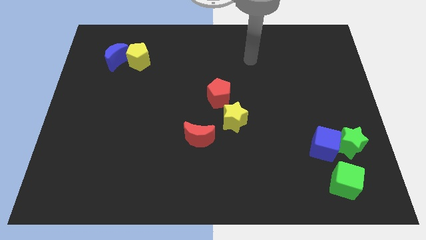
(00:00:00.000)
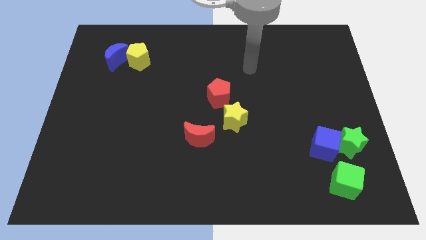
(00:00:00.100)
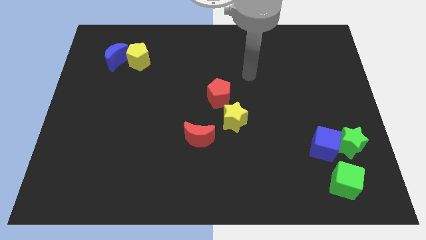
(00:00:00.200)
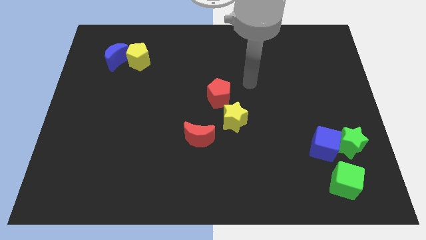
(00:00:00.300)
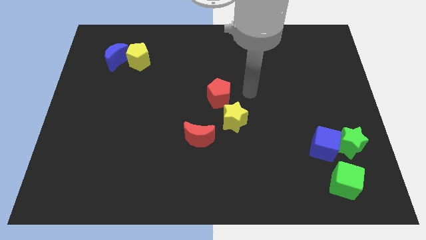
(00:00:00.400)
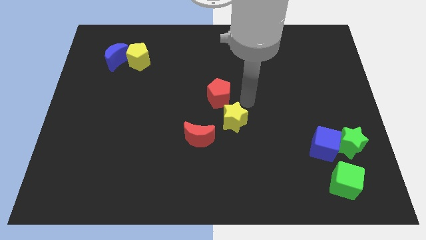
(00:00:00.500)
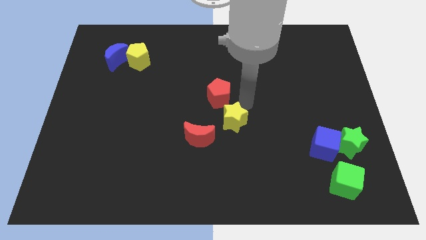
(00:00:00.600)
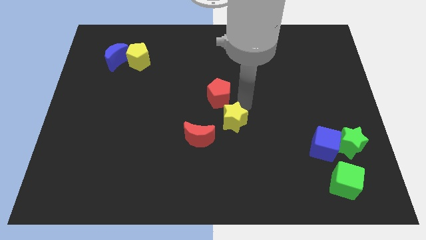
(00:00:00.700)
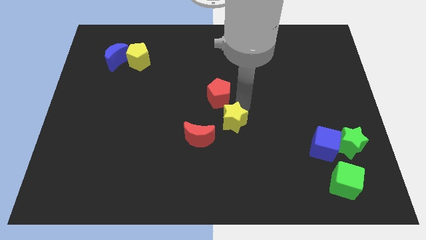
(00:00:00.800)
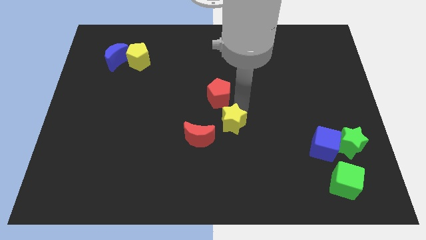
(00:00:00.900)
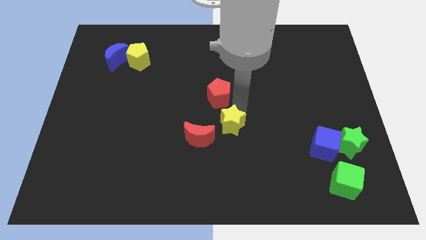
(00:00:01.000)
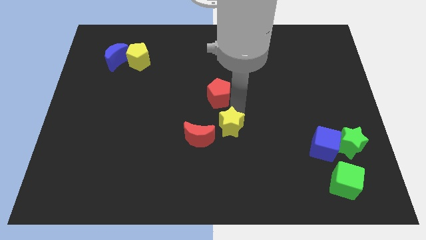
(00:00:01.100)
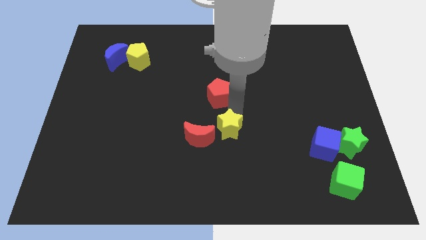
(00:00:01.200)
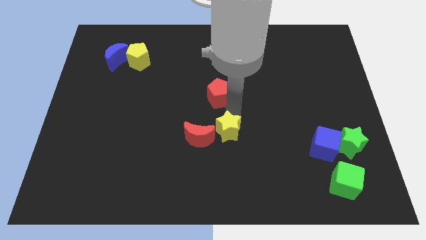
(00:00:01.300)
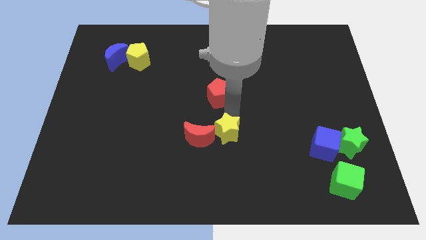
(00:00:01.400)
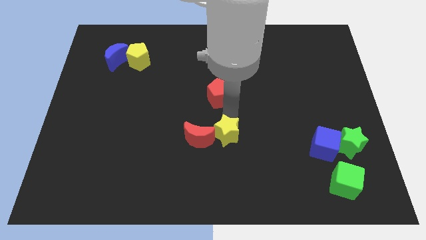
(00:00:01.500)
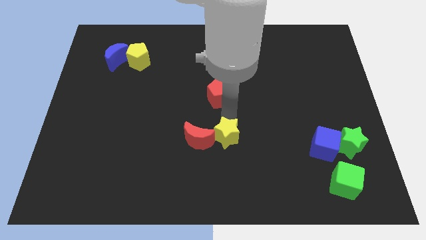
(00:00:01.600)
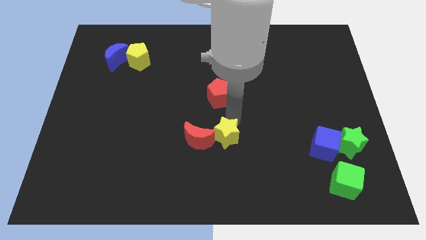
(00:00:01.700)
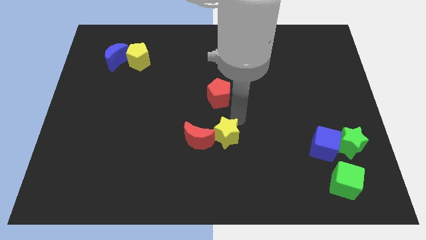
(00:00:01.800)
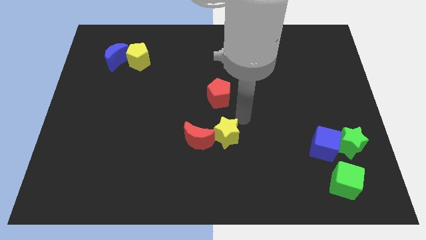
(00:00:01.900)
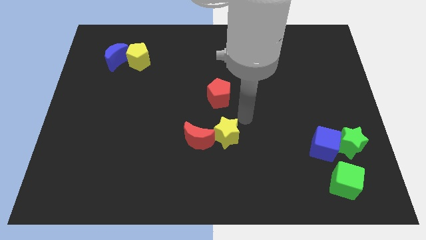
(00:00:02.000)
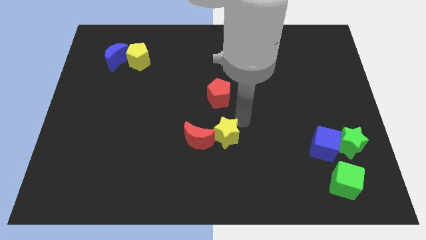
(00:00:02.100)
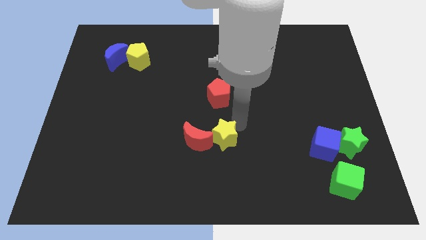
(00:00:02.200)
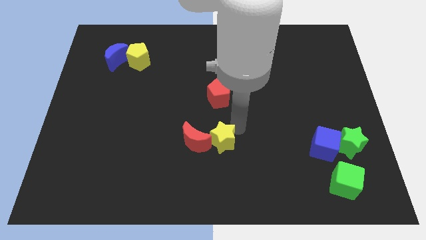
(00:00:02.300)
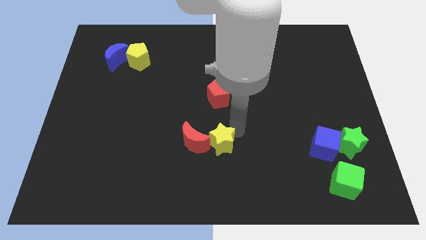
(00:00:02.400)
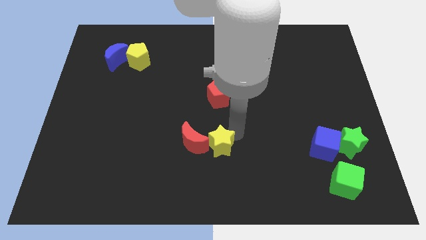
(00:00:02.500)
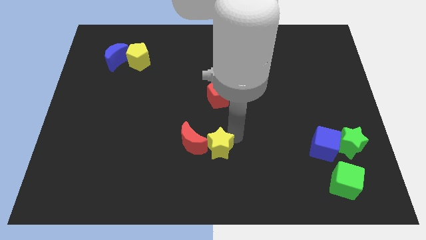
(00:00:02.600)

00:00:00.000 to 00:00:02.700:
move the yellow star diagonally downwards and to the left a bit

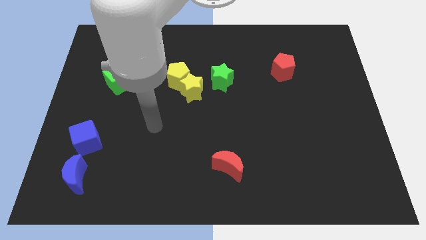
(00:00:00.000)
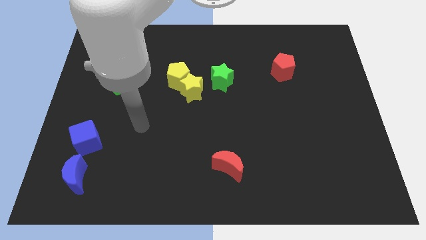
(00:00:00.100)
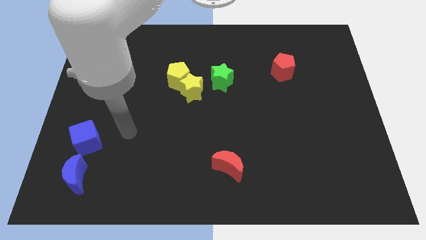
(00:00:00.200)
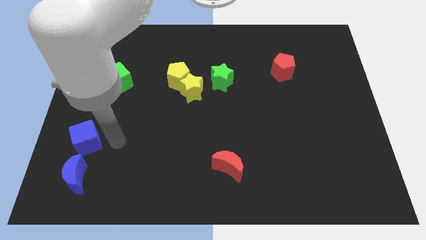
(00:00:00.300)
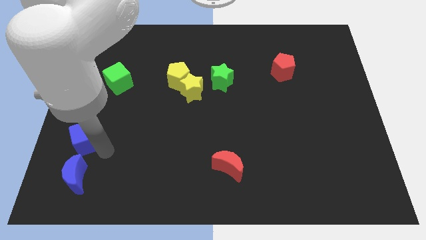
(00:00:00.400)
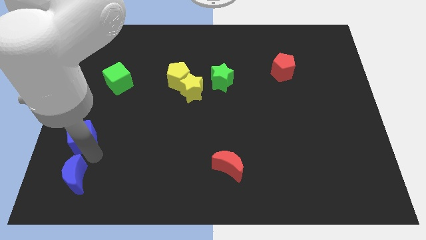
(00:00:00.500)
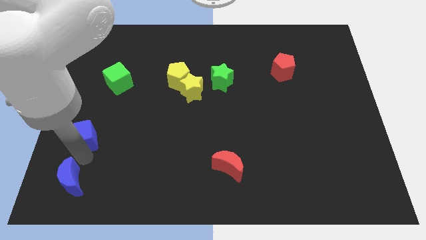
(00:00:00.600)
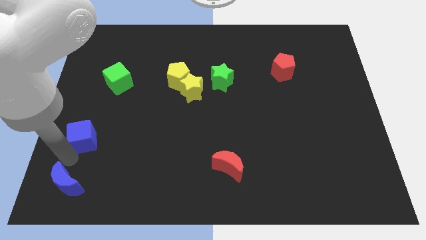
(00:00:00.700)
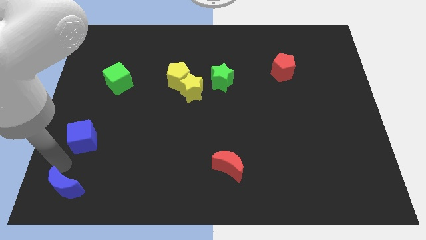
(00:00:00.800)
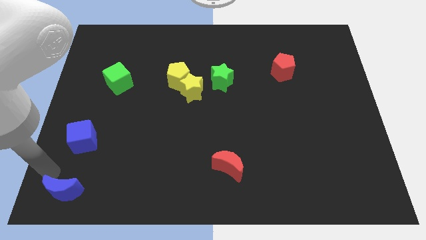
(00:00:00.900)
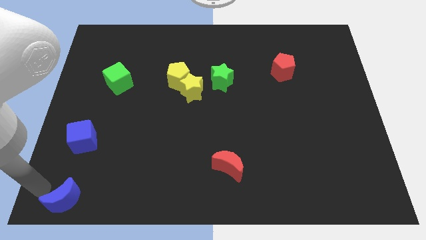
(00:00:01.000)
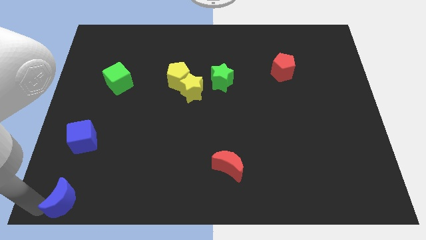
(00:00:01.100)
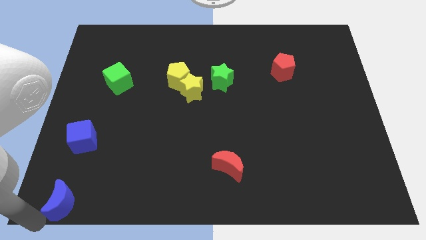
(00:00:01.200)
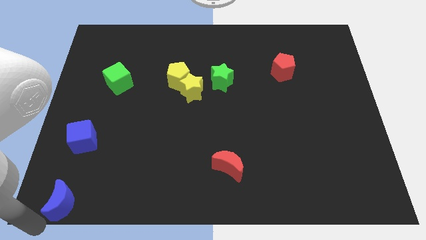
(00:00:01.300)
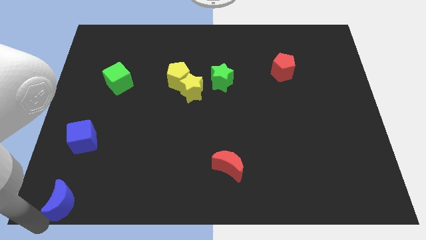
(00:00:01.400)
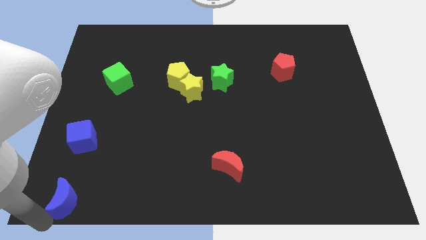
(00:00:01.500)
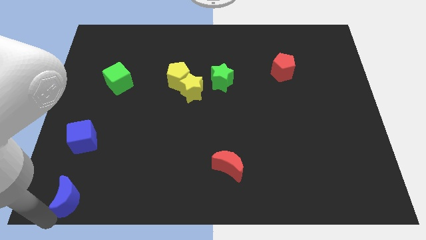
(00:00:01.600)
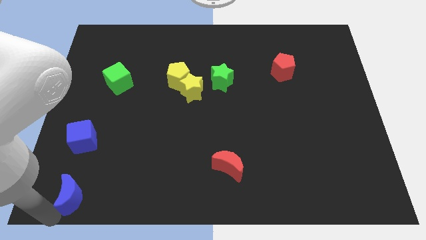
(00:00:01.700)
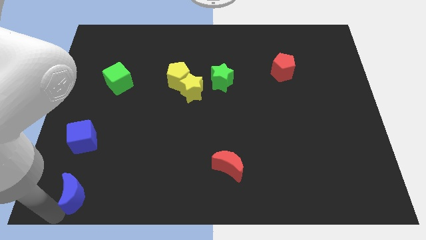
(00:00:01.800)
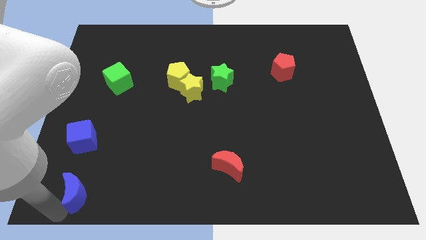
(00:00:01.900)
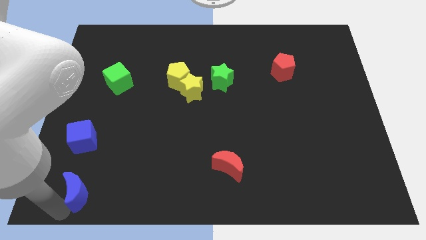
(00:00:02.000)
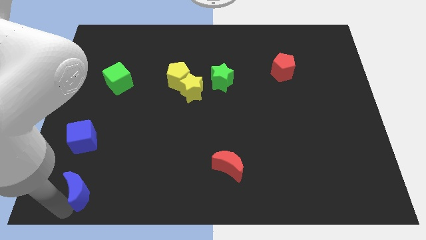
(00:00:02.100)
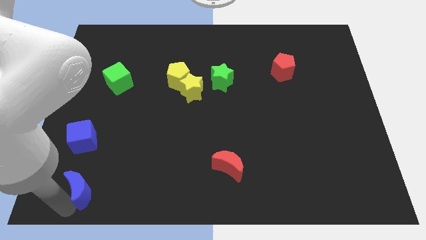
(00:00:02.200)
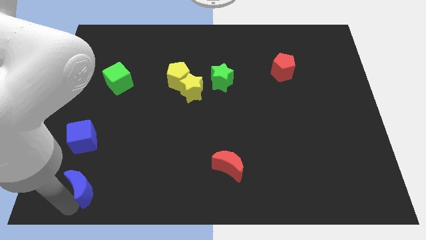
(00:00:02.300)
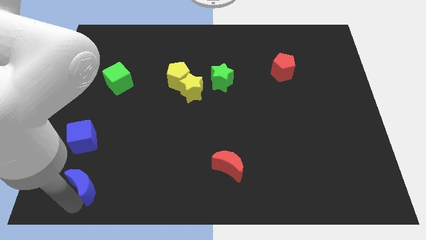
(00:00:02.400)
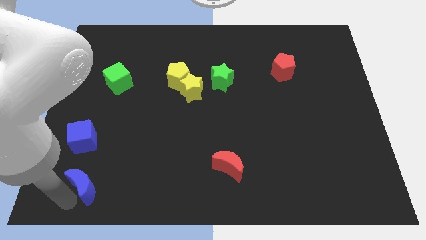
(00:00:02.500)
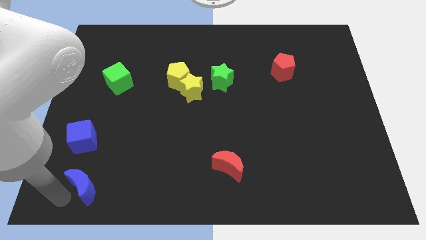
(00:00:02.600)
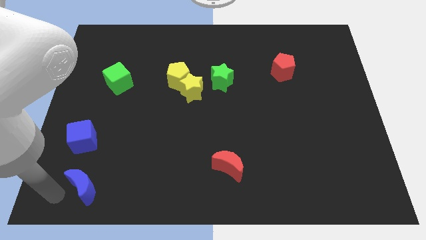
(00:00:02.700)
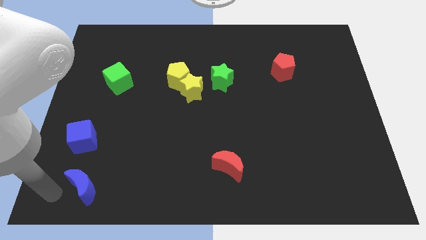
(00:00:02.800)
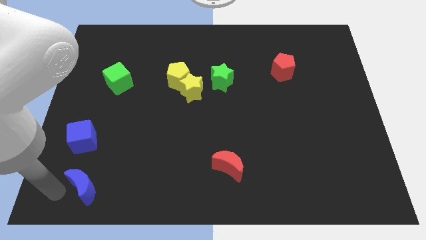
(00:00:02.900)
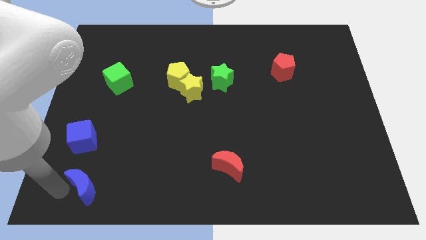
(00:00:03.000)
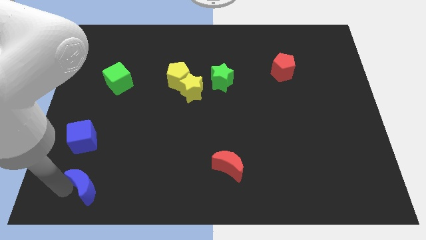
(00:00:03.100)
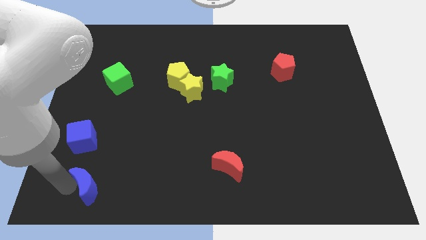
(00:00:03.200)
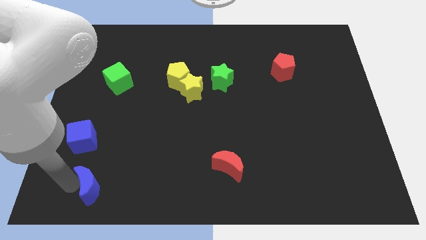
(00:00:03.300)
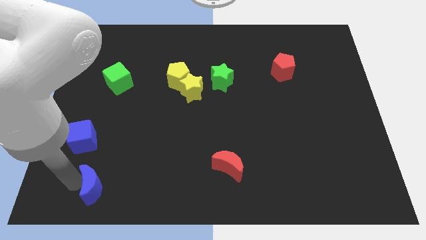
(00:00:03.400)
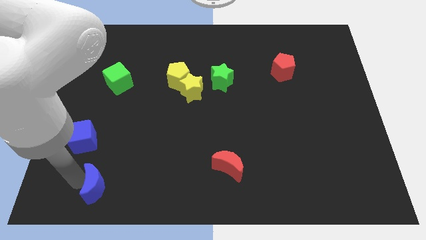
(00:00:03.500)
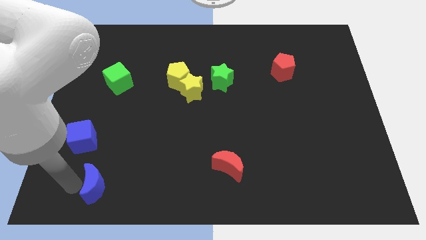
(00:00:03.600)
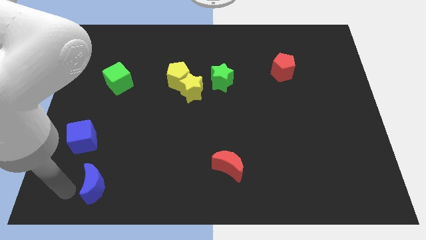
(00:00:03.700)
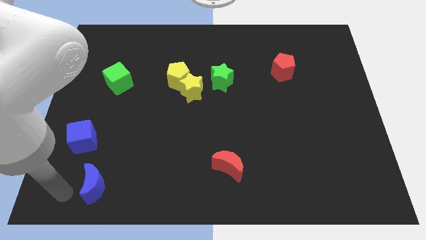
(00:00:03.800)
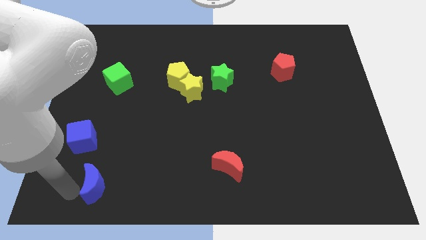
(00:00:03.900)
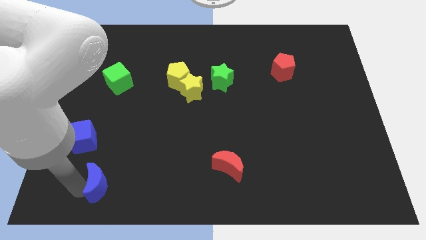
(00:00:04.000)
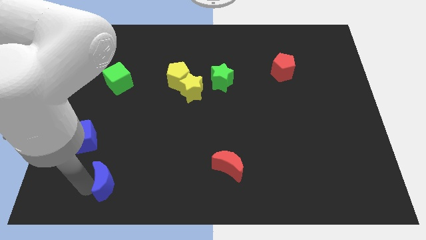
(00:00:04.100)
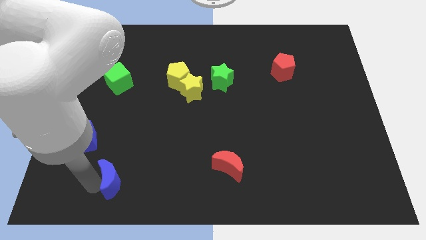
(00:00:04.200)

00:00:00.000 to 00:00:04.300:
move the blue moon right slightly

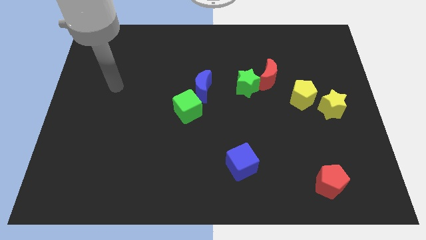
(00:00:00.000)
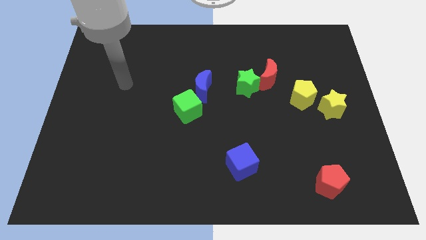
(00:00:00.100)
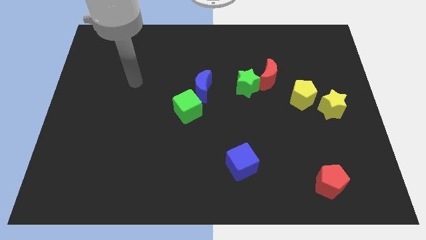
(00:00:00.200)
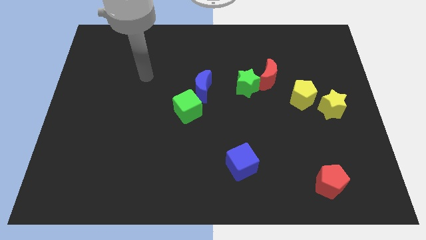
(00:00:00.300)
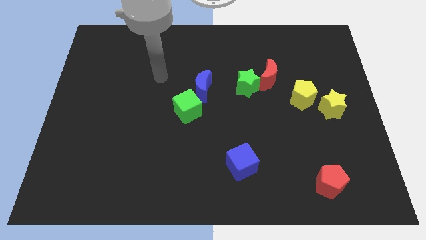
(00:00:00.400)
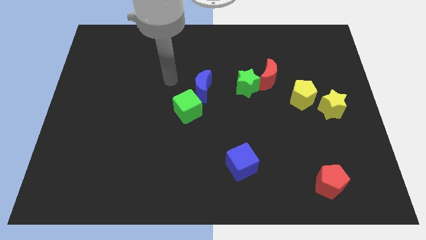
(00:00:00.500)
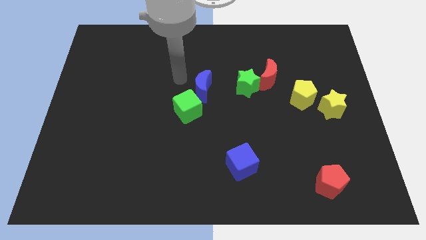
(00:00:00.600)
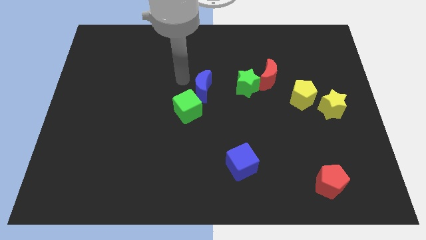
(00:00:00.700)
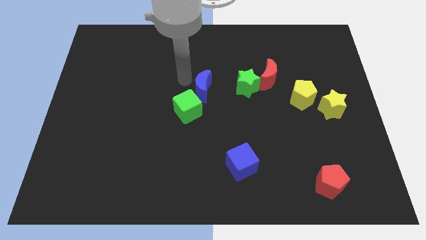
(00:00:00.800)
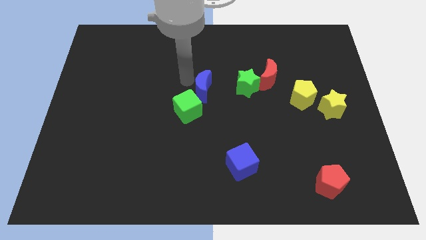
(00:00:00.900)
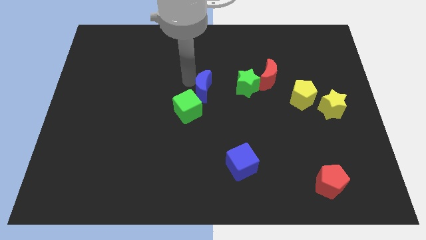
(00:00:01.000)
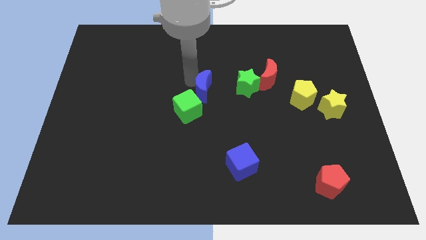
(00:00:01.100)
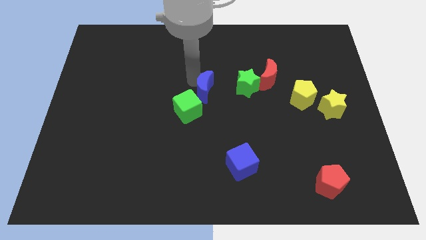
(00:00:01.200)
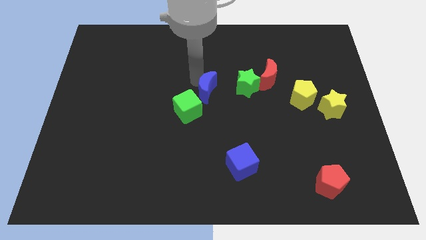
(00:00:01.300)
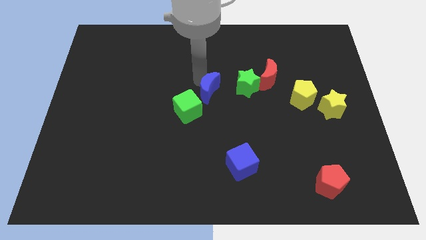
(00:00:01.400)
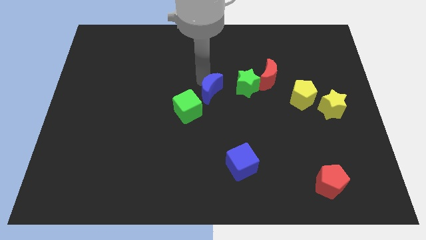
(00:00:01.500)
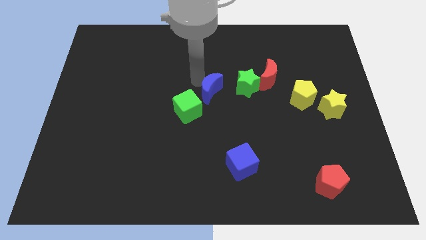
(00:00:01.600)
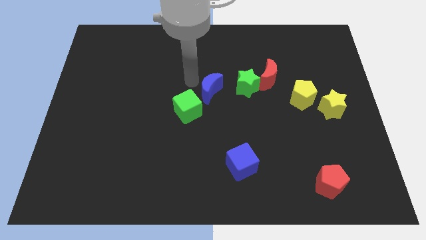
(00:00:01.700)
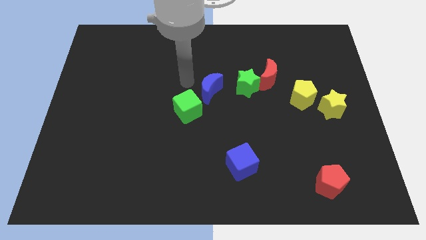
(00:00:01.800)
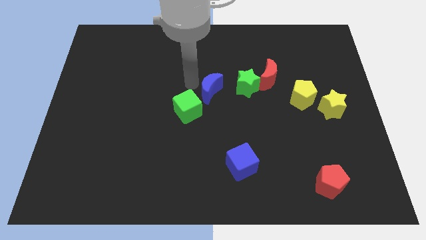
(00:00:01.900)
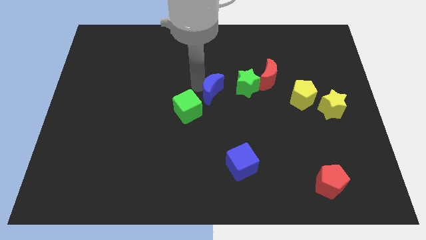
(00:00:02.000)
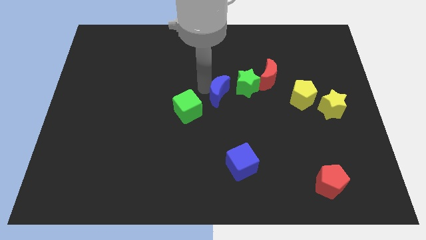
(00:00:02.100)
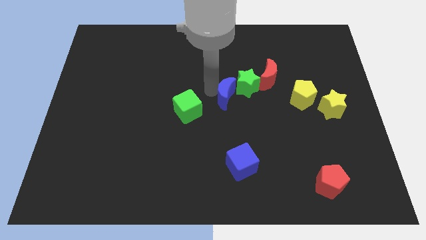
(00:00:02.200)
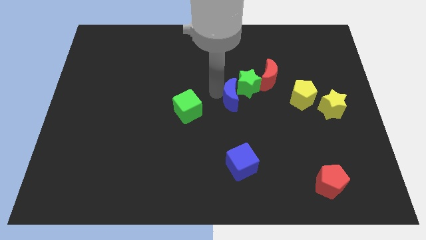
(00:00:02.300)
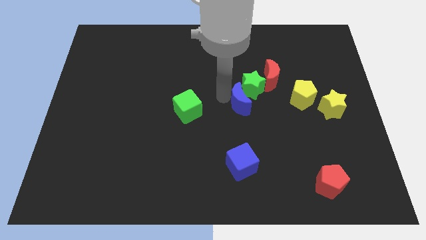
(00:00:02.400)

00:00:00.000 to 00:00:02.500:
slightly move the blue moon right
